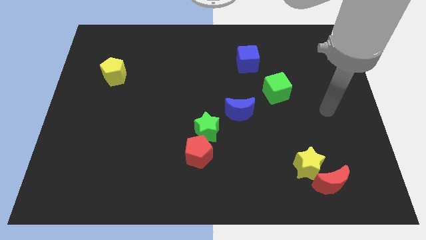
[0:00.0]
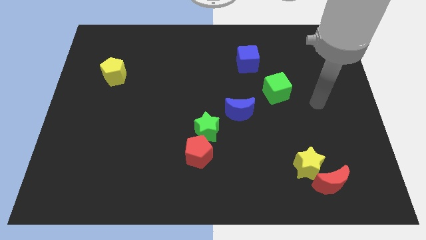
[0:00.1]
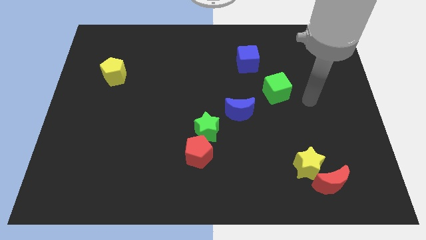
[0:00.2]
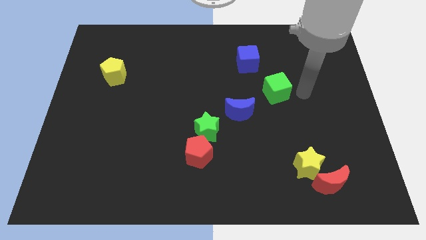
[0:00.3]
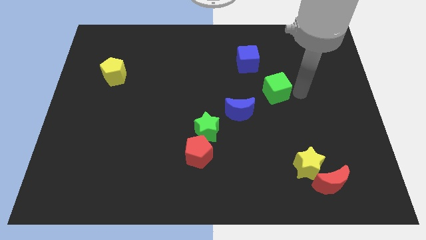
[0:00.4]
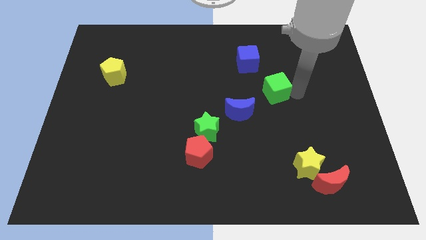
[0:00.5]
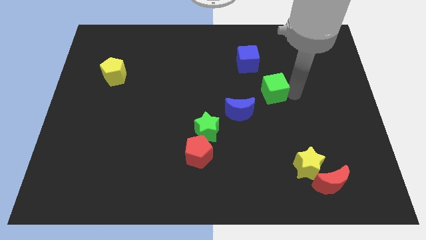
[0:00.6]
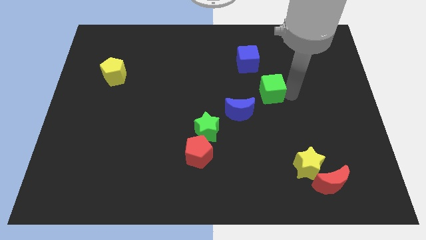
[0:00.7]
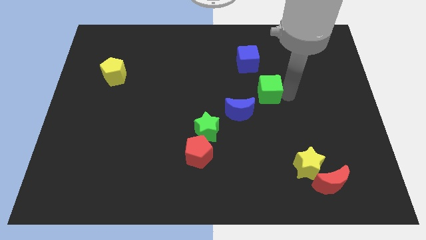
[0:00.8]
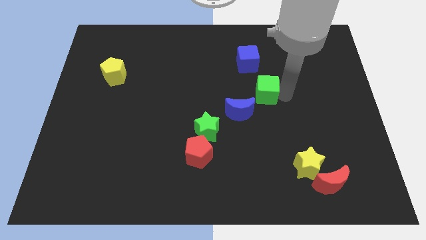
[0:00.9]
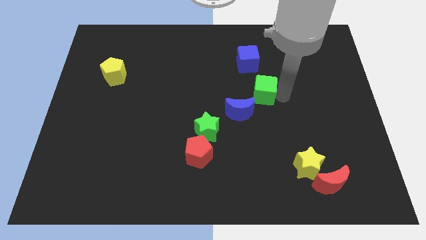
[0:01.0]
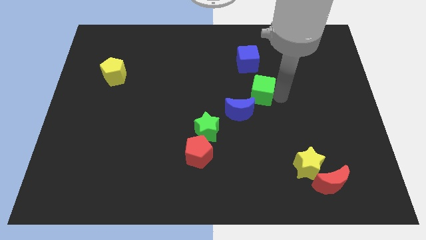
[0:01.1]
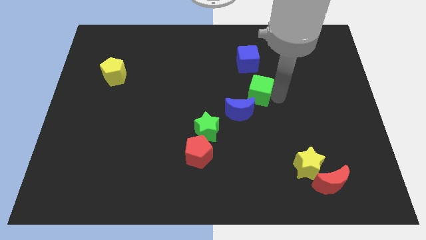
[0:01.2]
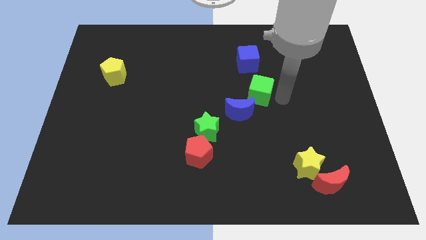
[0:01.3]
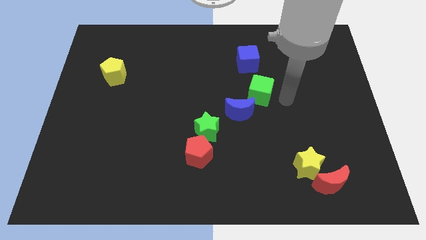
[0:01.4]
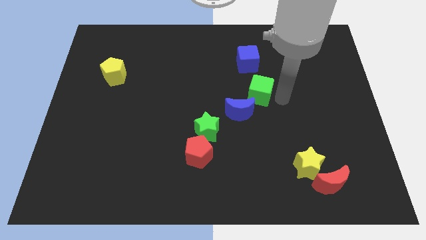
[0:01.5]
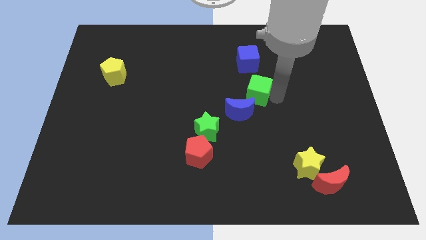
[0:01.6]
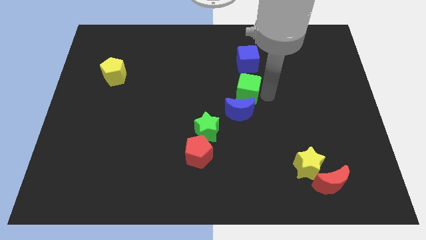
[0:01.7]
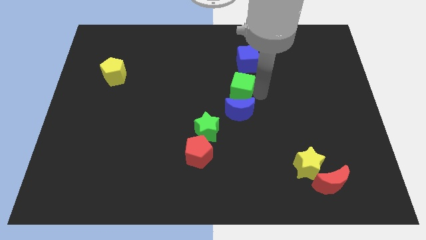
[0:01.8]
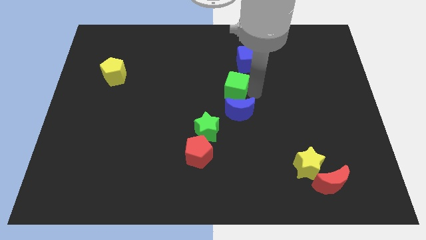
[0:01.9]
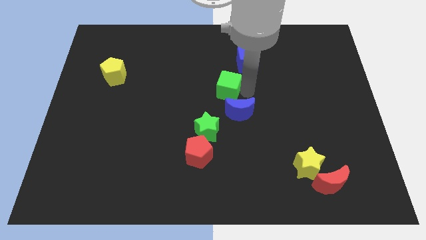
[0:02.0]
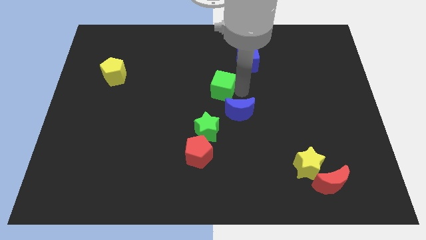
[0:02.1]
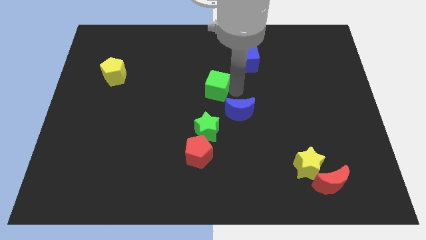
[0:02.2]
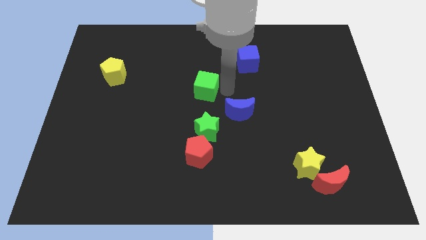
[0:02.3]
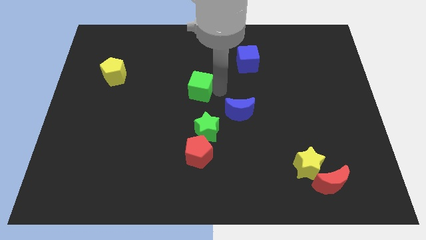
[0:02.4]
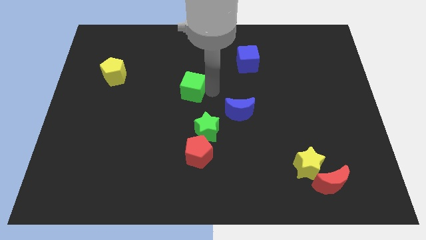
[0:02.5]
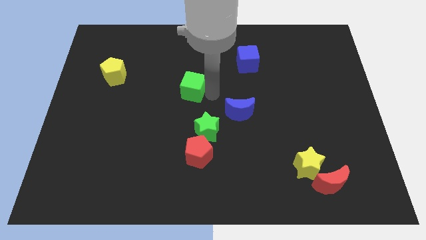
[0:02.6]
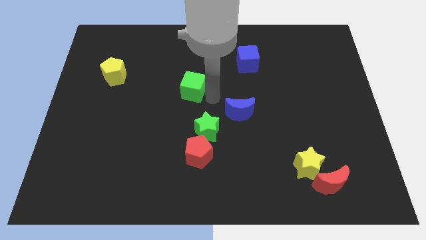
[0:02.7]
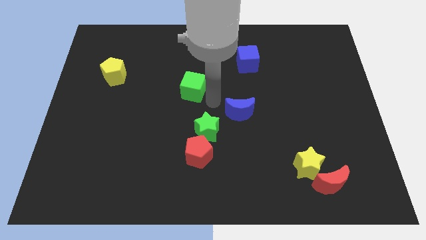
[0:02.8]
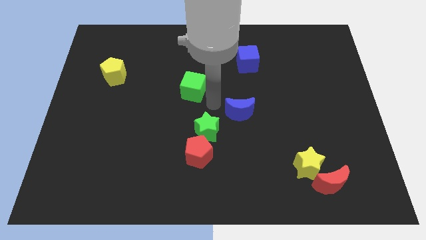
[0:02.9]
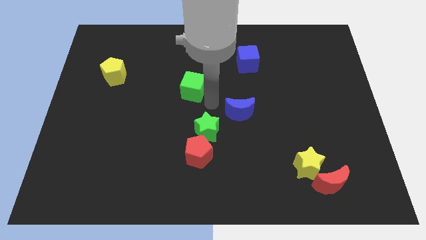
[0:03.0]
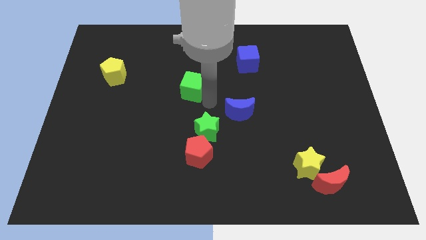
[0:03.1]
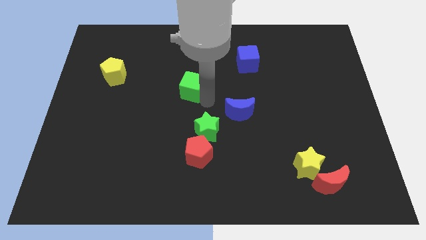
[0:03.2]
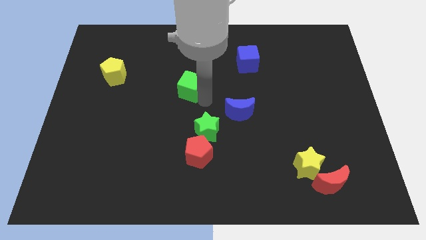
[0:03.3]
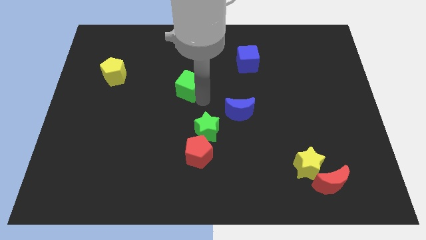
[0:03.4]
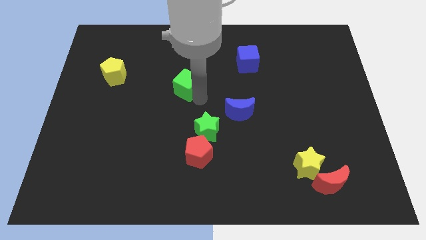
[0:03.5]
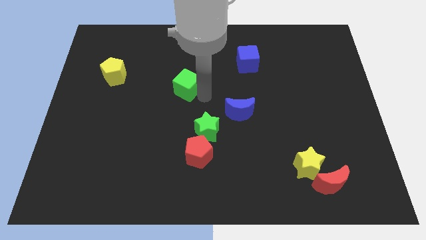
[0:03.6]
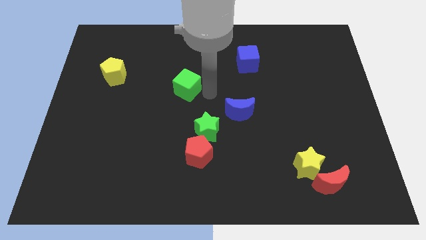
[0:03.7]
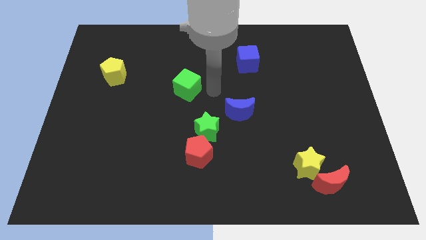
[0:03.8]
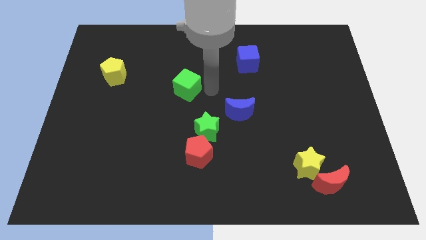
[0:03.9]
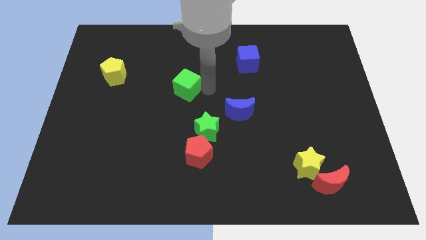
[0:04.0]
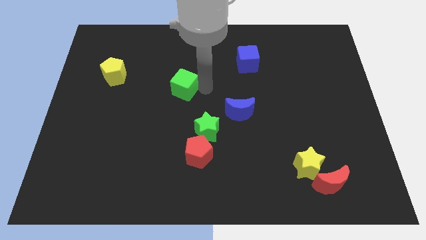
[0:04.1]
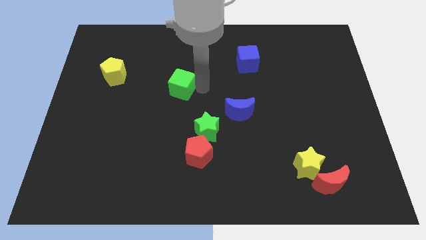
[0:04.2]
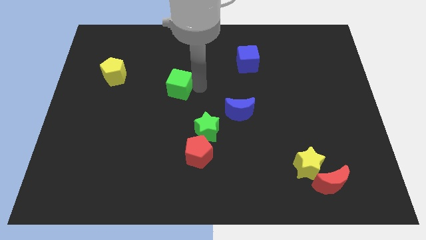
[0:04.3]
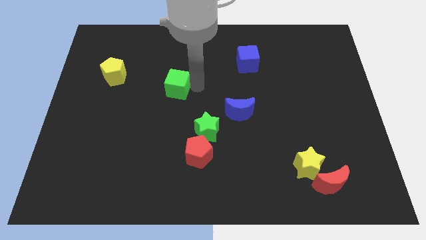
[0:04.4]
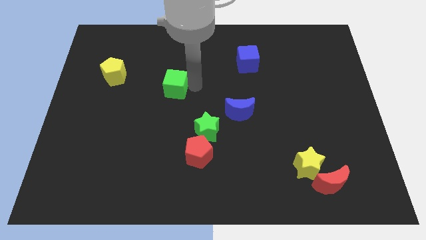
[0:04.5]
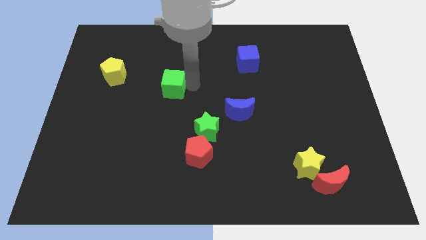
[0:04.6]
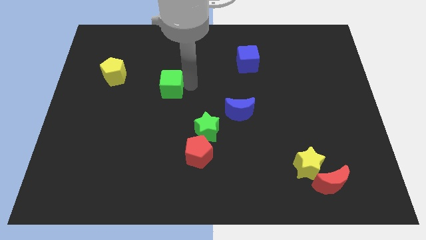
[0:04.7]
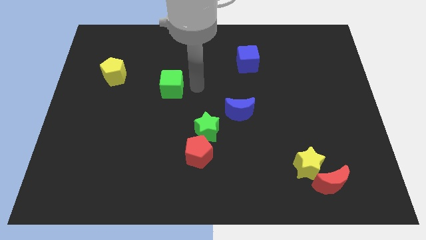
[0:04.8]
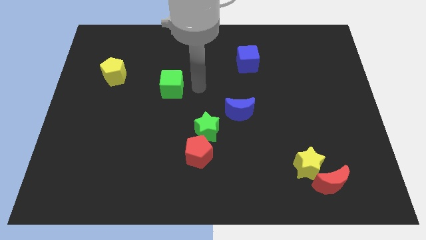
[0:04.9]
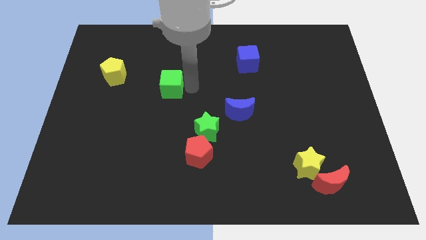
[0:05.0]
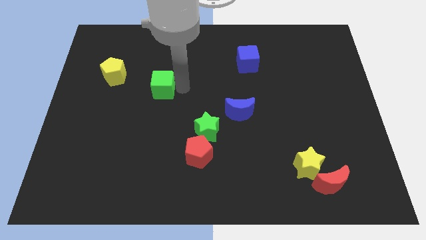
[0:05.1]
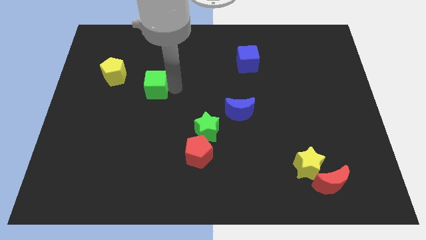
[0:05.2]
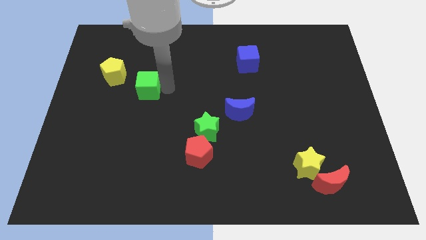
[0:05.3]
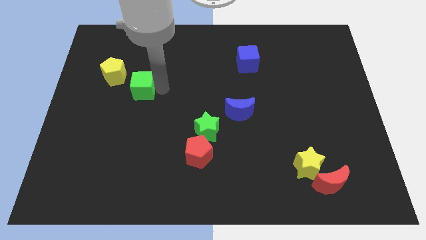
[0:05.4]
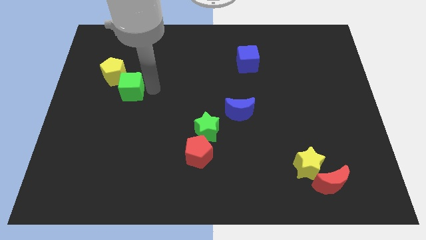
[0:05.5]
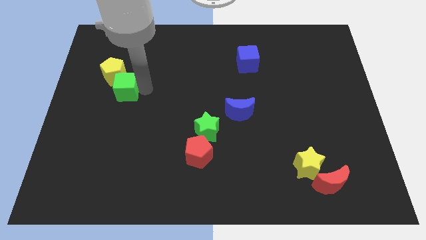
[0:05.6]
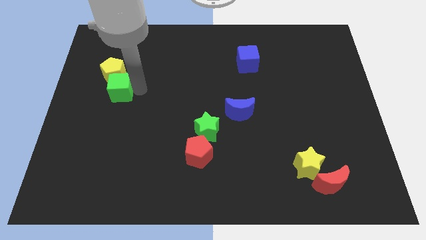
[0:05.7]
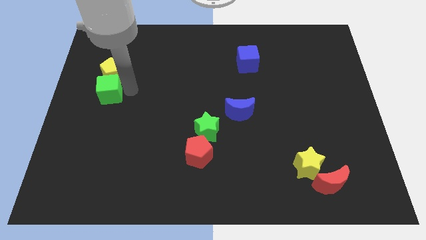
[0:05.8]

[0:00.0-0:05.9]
put the green cube to the left side

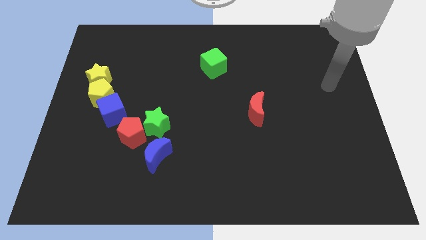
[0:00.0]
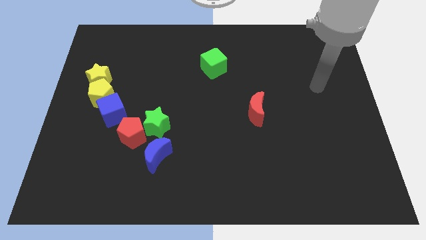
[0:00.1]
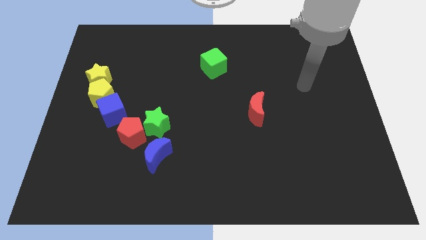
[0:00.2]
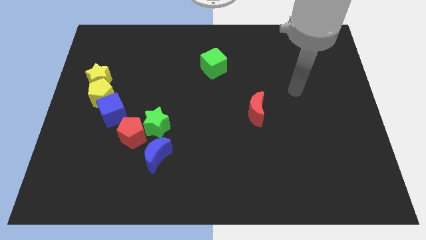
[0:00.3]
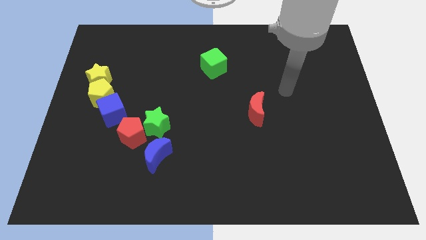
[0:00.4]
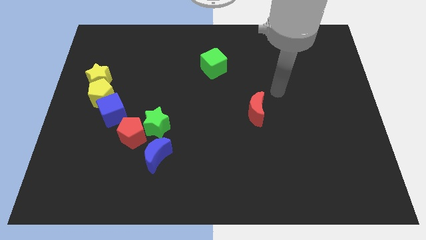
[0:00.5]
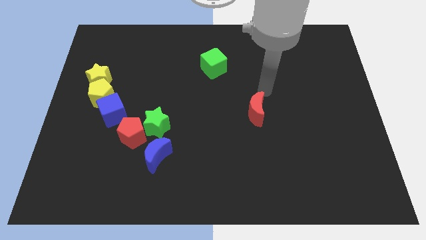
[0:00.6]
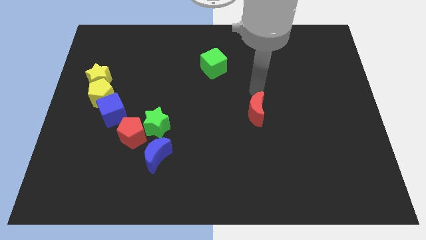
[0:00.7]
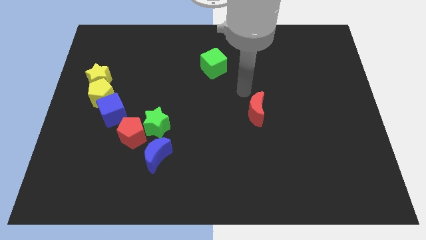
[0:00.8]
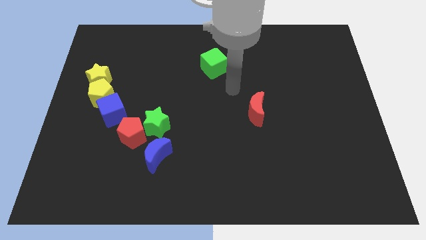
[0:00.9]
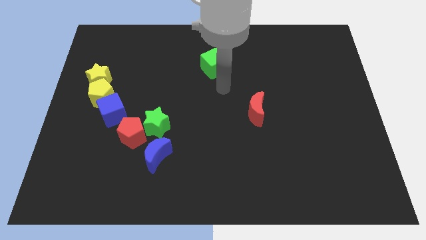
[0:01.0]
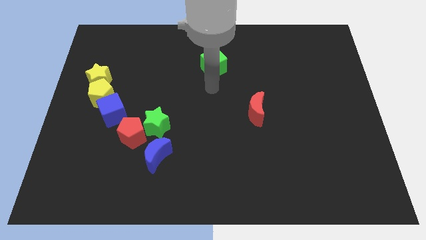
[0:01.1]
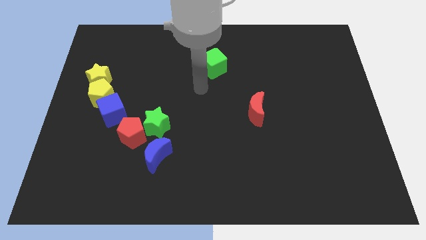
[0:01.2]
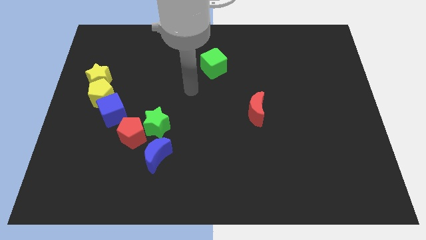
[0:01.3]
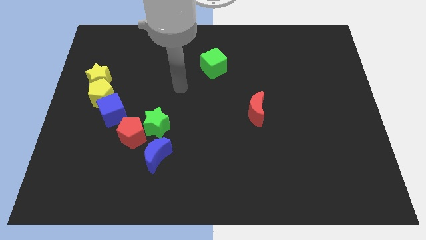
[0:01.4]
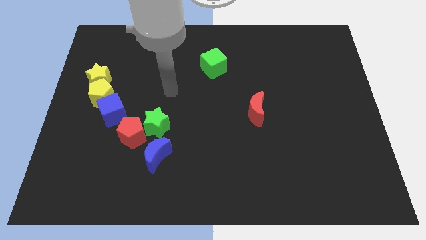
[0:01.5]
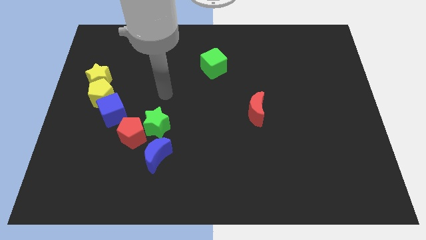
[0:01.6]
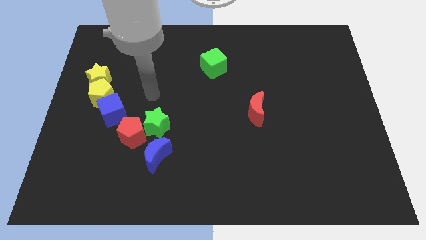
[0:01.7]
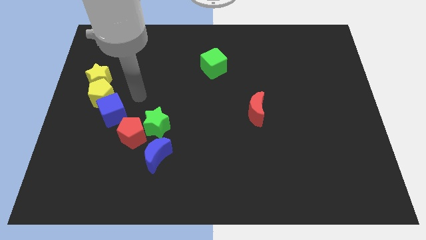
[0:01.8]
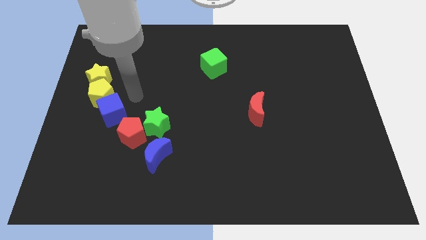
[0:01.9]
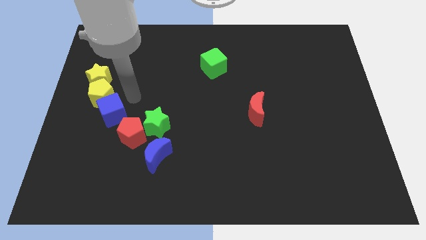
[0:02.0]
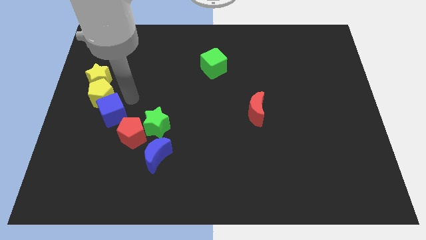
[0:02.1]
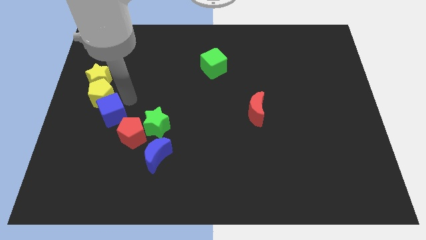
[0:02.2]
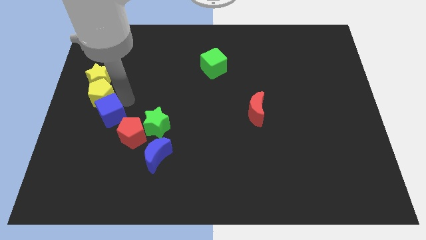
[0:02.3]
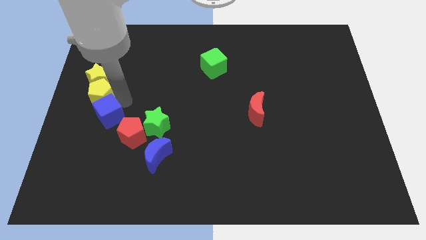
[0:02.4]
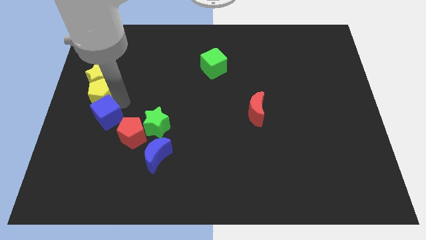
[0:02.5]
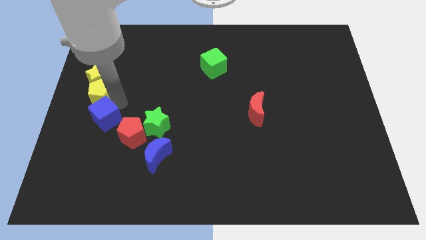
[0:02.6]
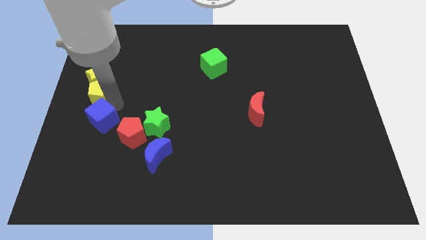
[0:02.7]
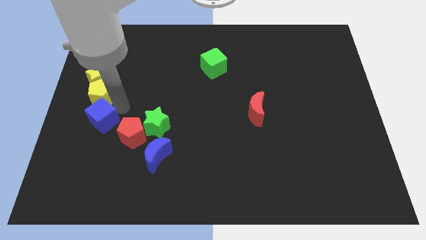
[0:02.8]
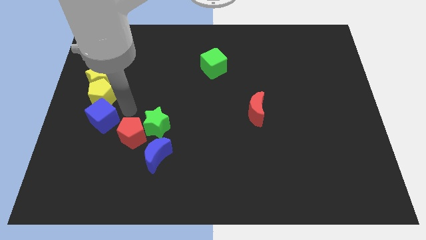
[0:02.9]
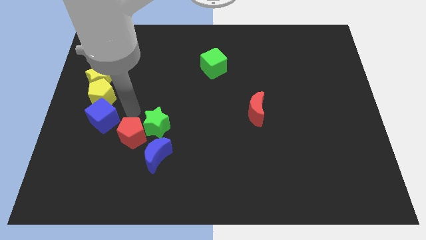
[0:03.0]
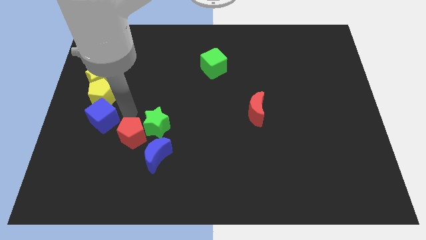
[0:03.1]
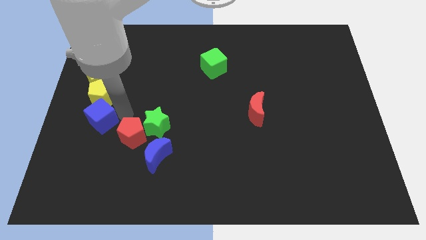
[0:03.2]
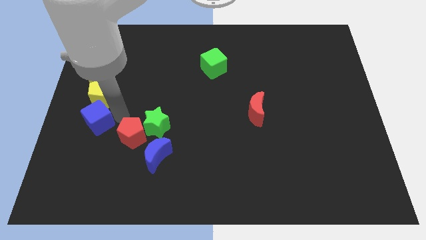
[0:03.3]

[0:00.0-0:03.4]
put the blue cube to the center left
